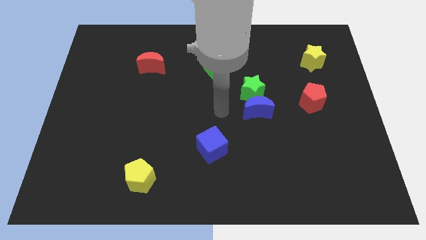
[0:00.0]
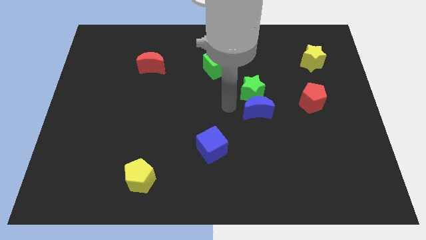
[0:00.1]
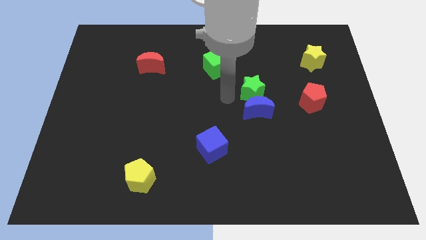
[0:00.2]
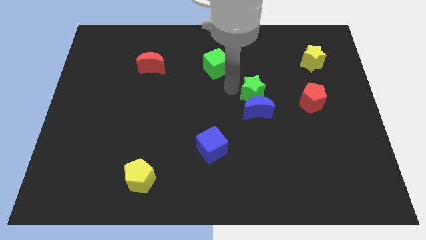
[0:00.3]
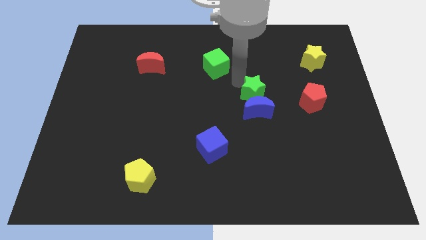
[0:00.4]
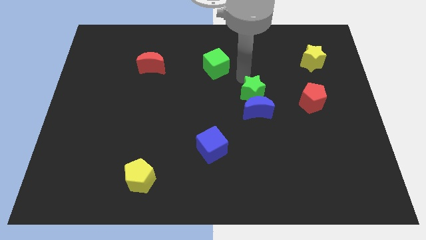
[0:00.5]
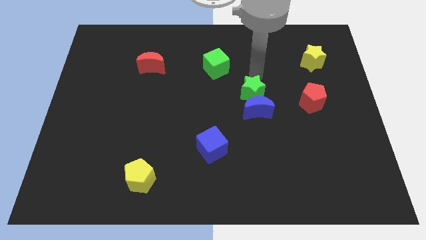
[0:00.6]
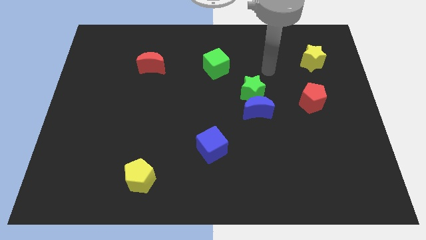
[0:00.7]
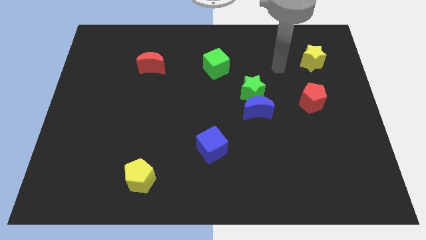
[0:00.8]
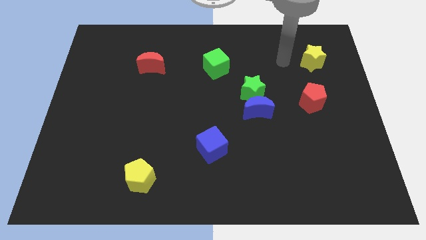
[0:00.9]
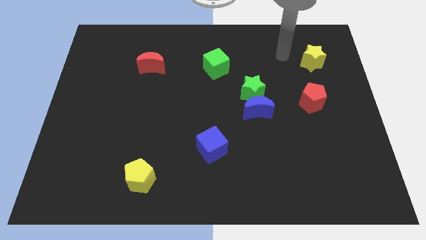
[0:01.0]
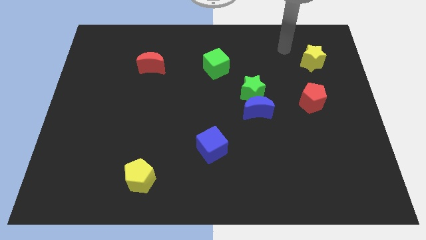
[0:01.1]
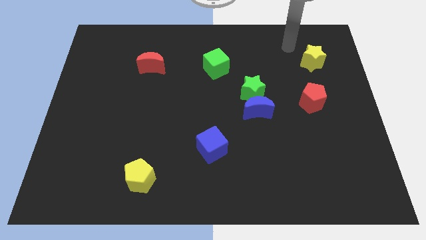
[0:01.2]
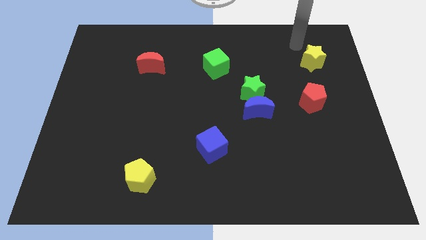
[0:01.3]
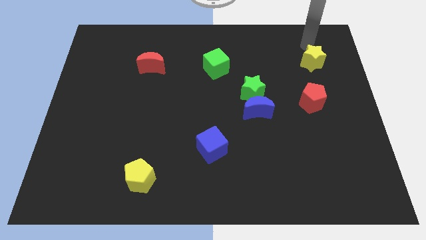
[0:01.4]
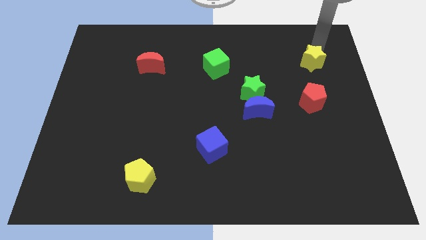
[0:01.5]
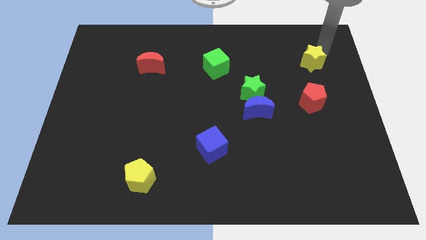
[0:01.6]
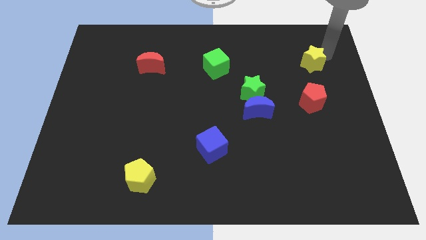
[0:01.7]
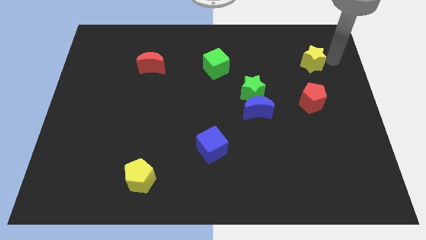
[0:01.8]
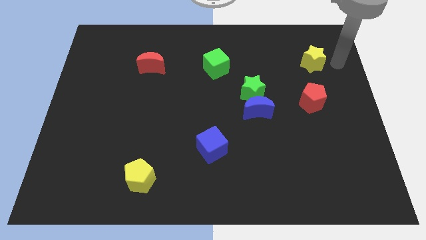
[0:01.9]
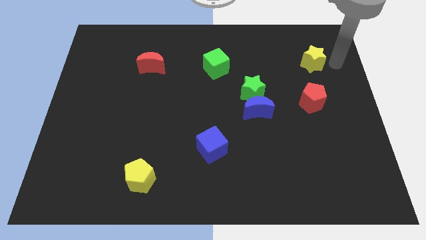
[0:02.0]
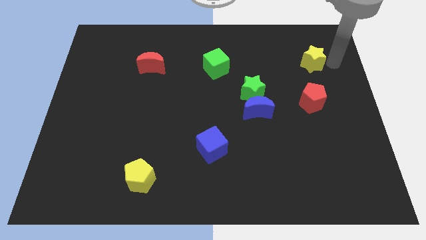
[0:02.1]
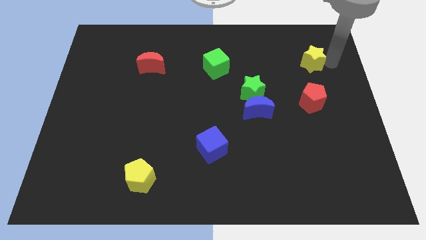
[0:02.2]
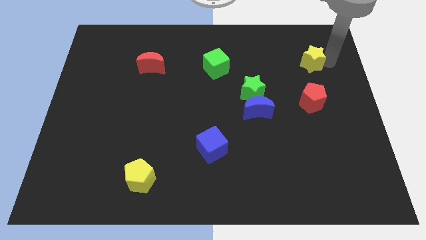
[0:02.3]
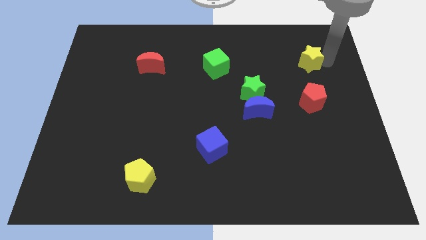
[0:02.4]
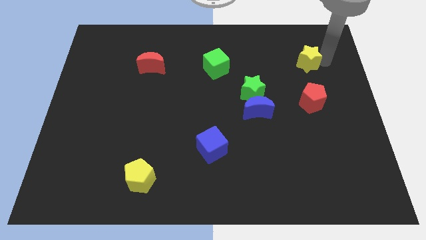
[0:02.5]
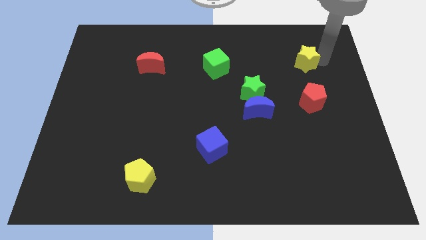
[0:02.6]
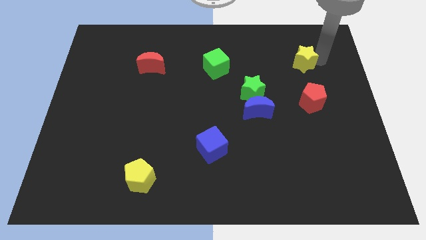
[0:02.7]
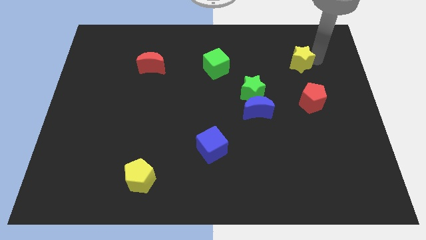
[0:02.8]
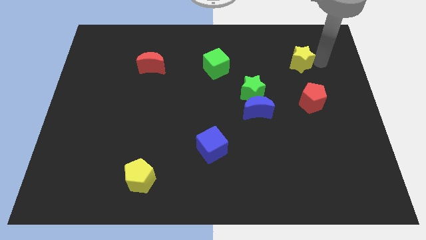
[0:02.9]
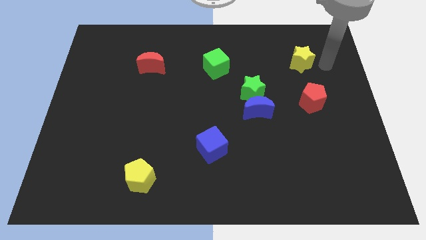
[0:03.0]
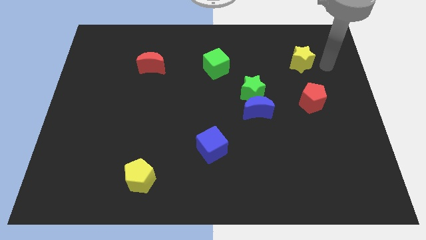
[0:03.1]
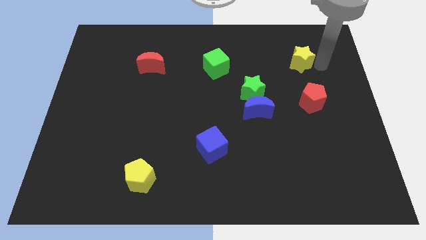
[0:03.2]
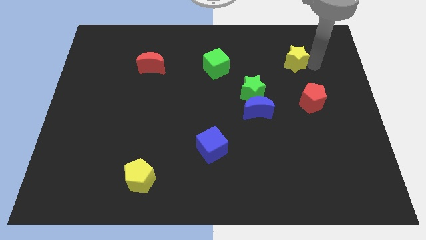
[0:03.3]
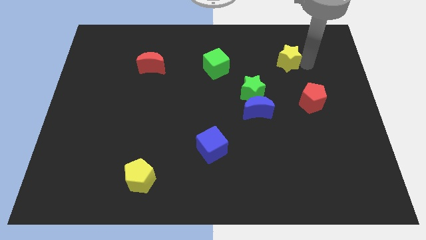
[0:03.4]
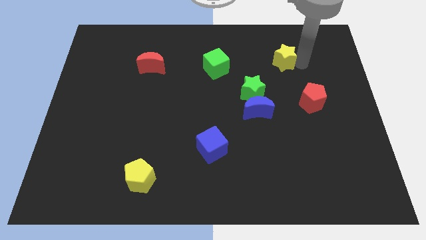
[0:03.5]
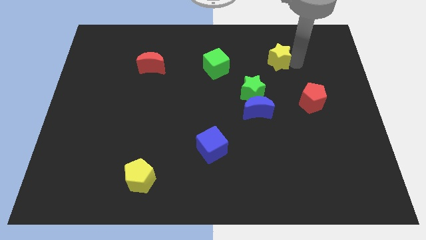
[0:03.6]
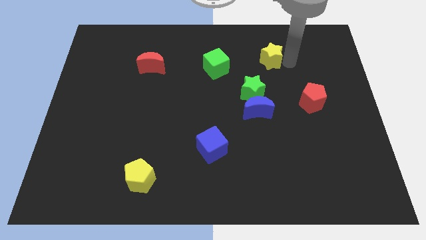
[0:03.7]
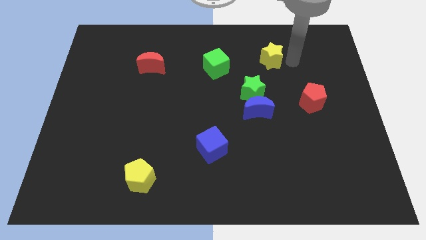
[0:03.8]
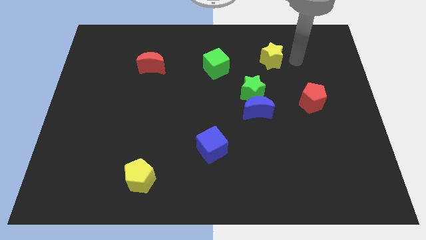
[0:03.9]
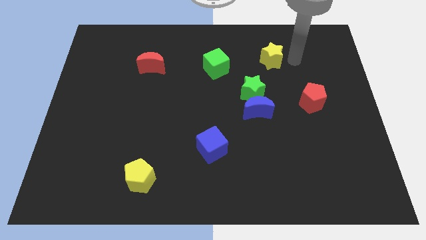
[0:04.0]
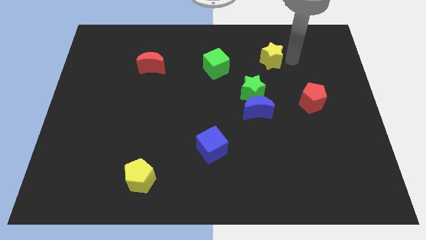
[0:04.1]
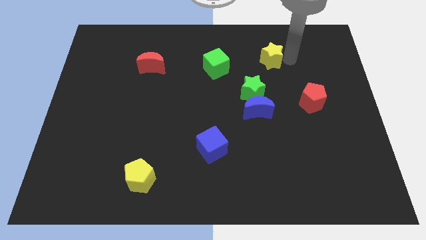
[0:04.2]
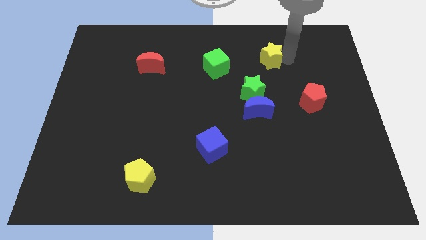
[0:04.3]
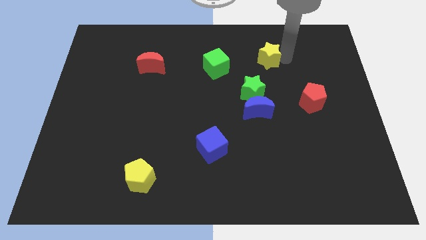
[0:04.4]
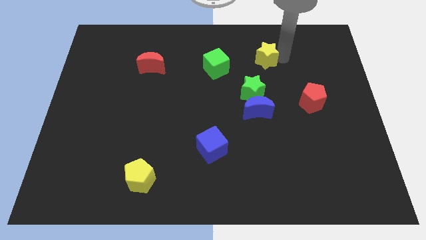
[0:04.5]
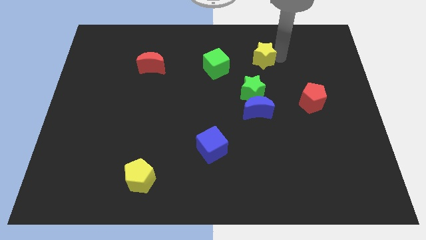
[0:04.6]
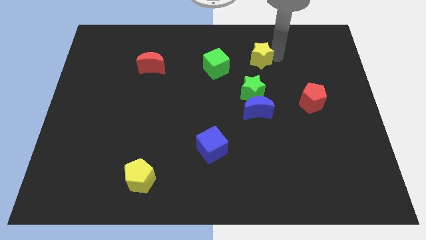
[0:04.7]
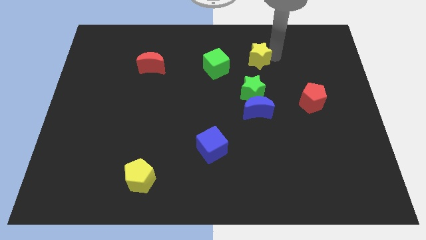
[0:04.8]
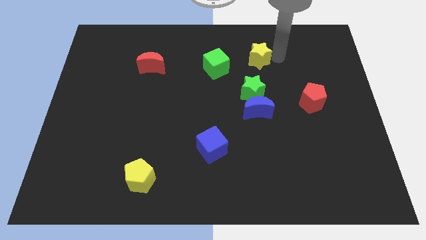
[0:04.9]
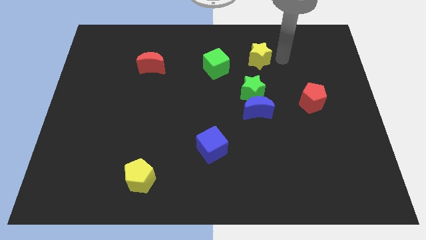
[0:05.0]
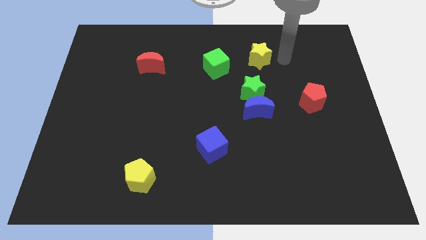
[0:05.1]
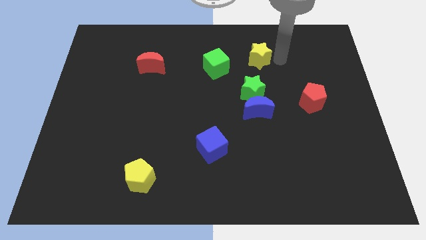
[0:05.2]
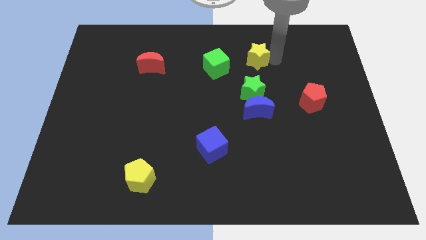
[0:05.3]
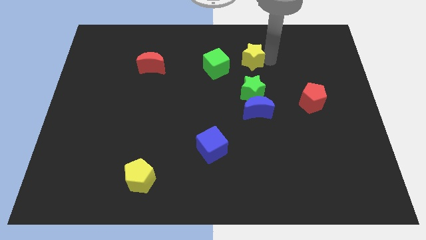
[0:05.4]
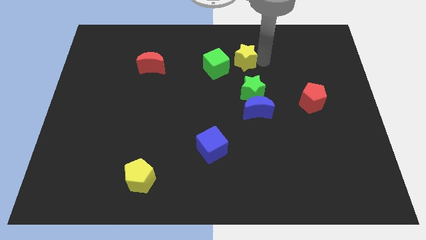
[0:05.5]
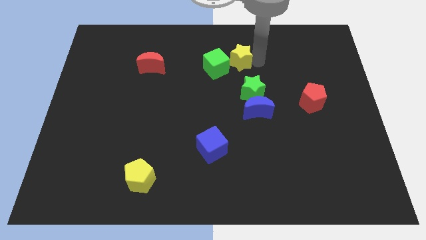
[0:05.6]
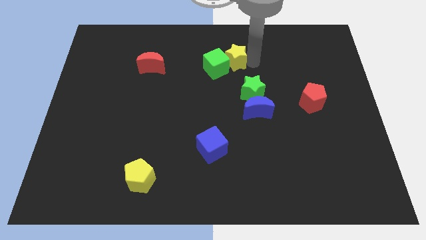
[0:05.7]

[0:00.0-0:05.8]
push the yellow star to the left

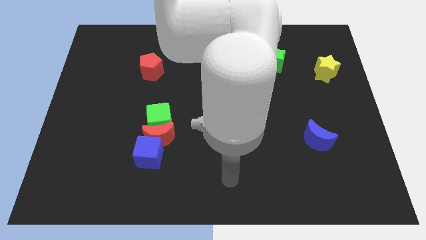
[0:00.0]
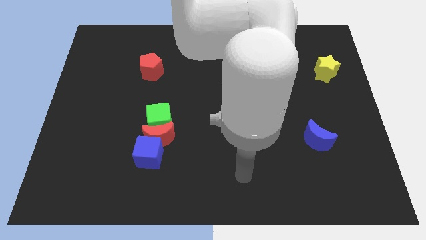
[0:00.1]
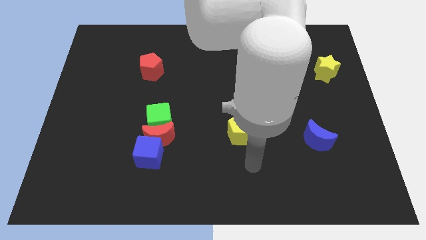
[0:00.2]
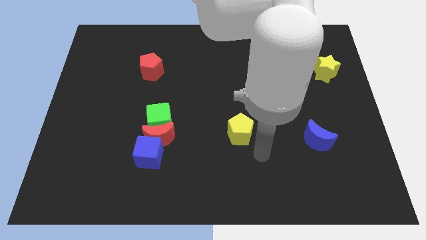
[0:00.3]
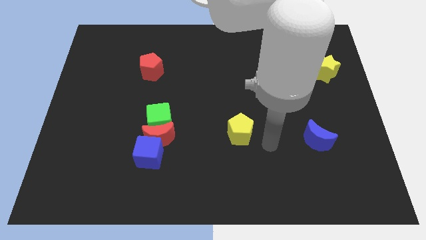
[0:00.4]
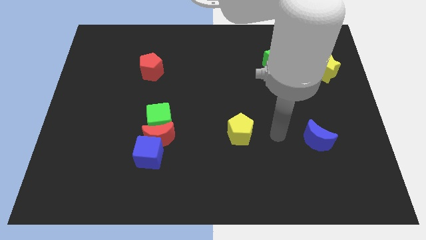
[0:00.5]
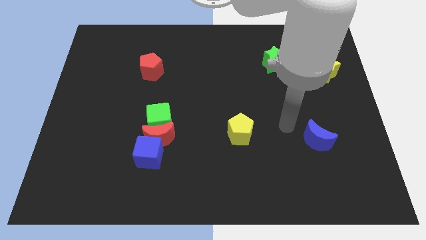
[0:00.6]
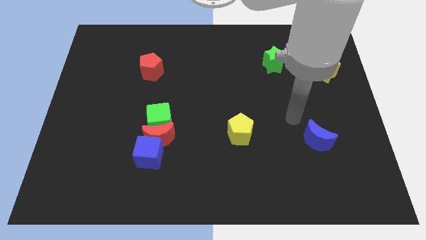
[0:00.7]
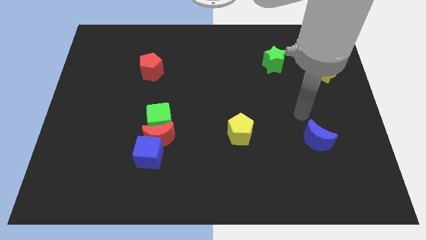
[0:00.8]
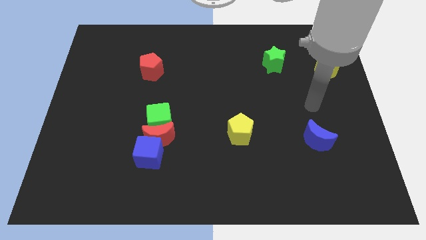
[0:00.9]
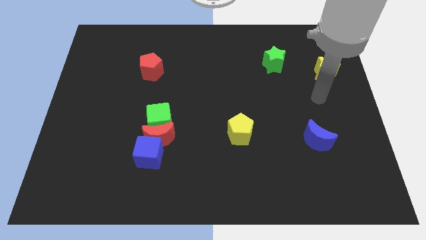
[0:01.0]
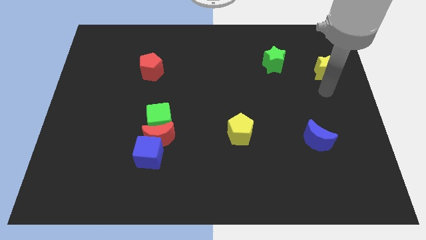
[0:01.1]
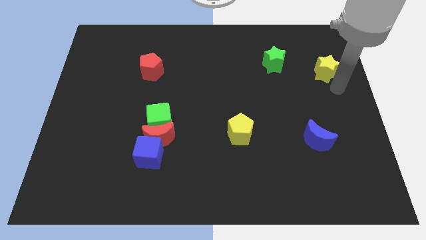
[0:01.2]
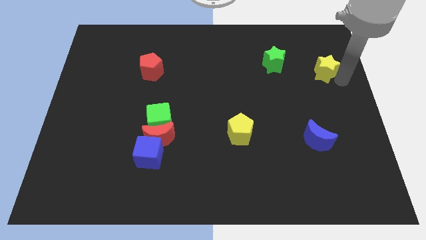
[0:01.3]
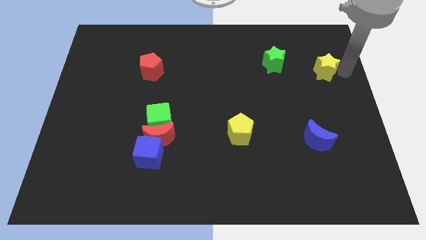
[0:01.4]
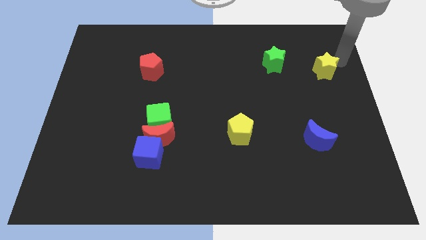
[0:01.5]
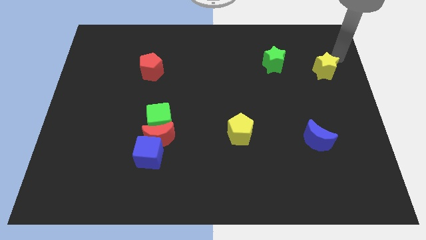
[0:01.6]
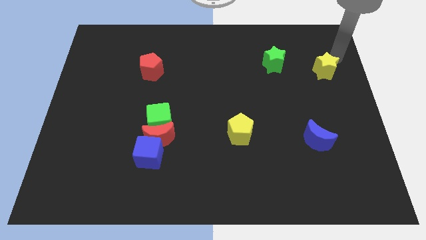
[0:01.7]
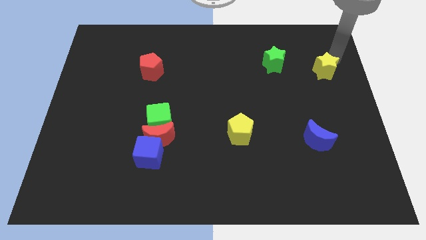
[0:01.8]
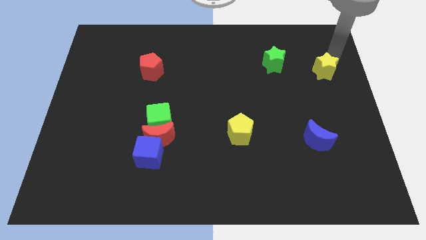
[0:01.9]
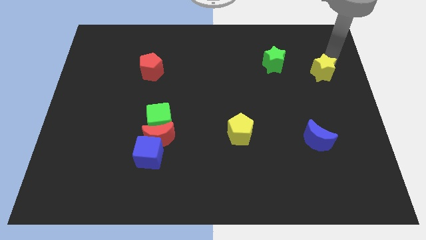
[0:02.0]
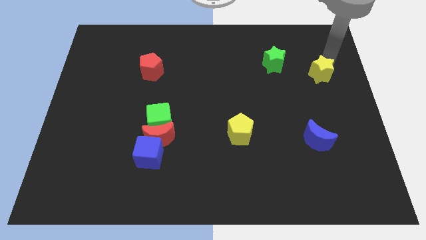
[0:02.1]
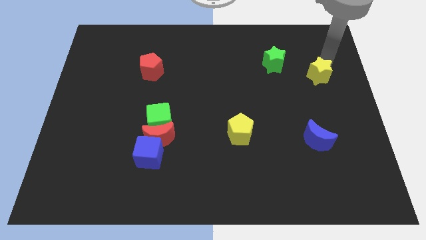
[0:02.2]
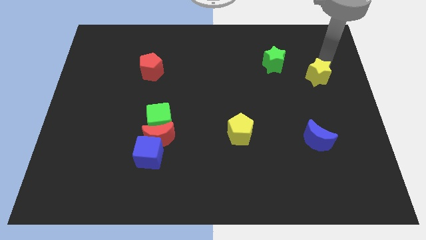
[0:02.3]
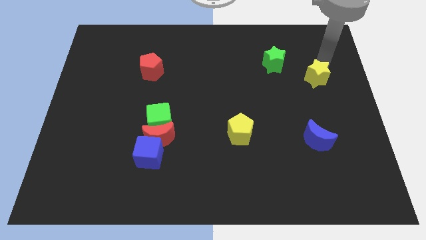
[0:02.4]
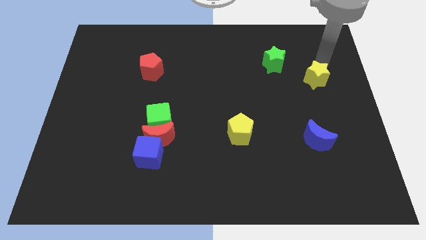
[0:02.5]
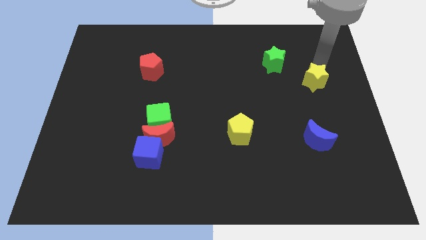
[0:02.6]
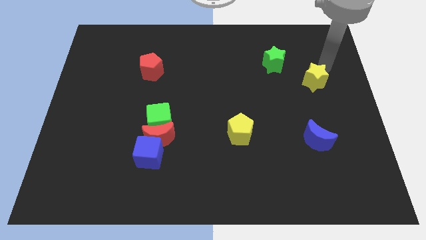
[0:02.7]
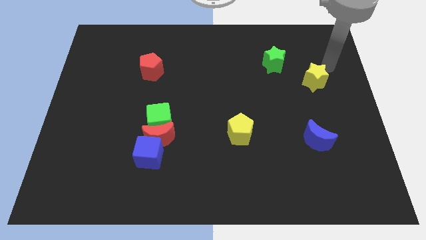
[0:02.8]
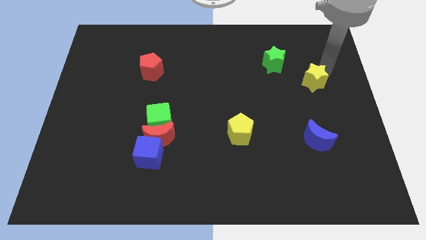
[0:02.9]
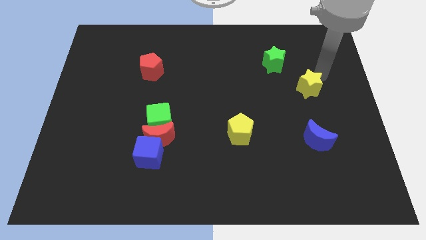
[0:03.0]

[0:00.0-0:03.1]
slightly move the yellow star down and then to the left
